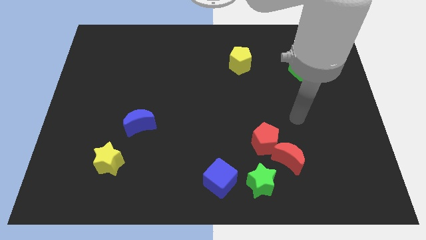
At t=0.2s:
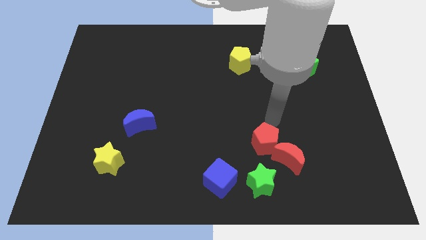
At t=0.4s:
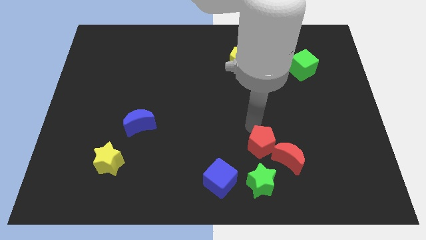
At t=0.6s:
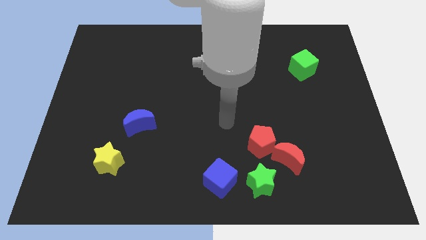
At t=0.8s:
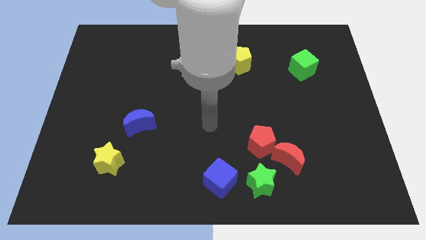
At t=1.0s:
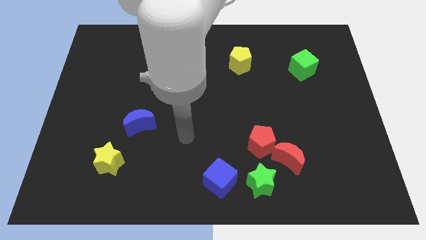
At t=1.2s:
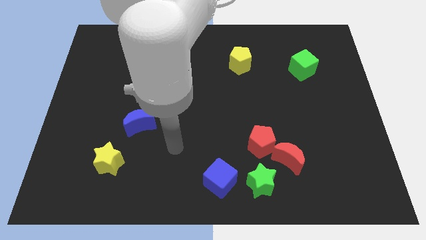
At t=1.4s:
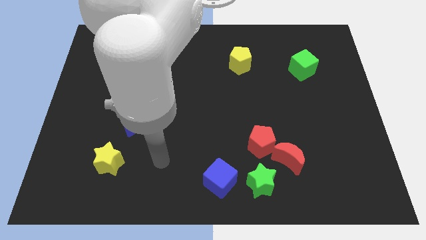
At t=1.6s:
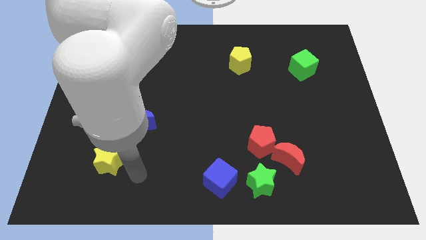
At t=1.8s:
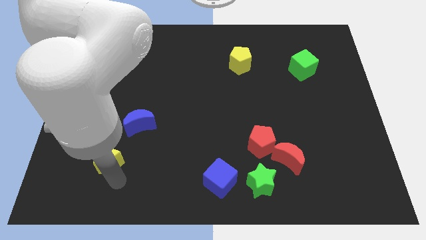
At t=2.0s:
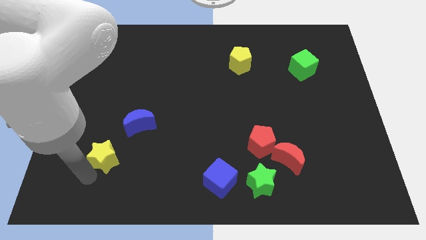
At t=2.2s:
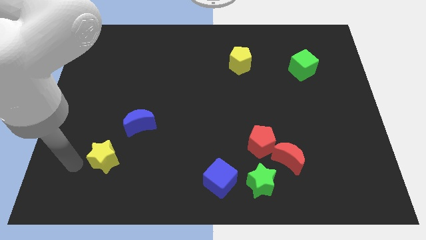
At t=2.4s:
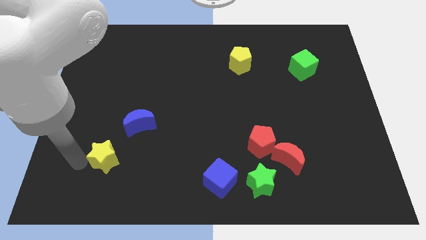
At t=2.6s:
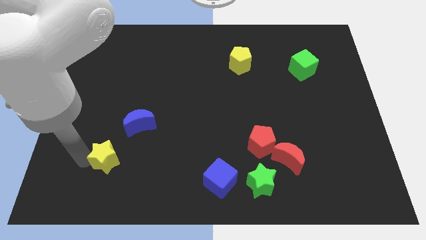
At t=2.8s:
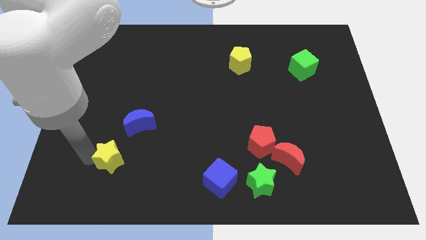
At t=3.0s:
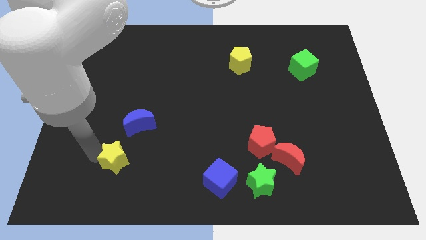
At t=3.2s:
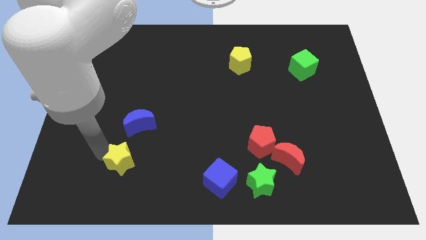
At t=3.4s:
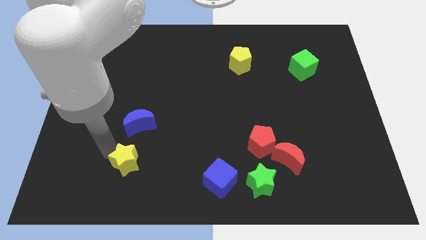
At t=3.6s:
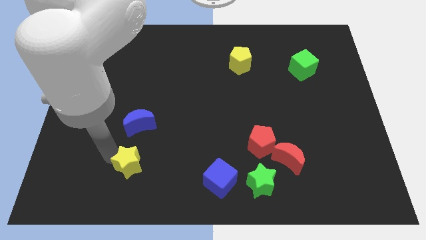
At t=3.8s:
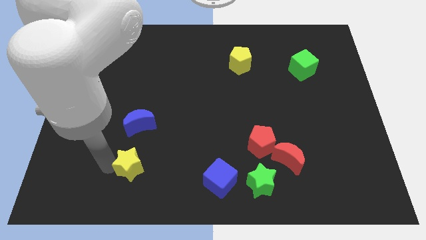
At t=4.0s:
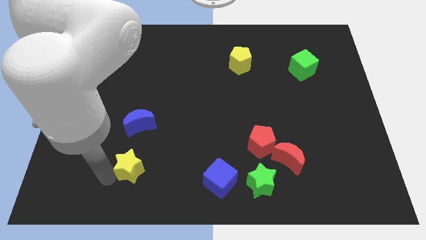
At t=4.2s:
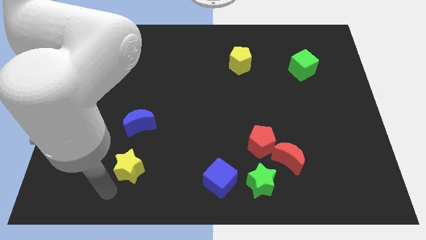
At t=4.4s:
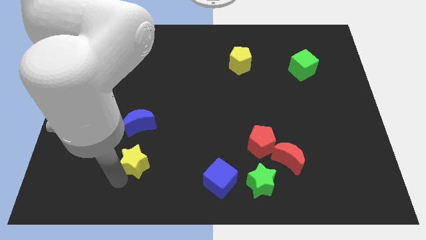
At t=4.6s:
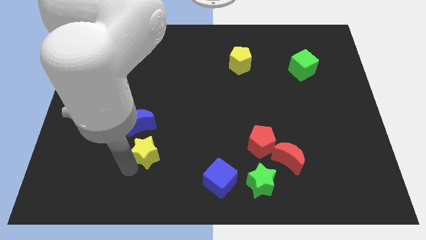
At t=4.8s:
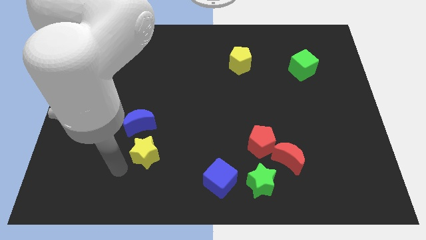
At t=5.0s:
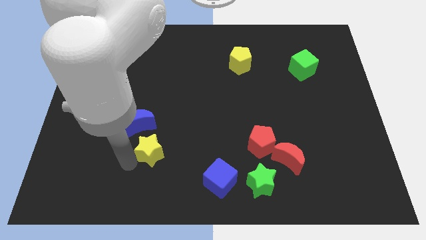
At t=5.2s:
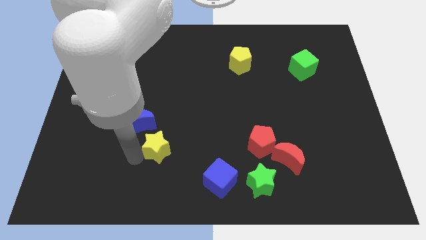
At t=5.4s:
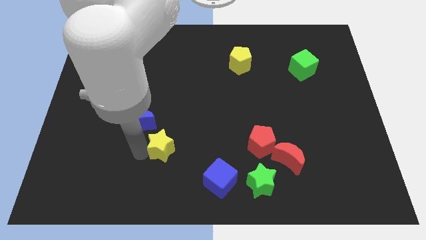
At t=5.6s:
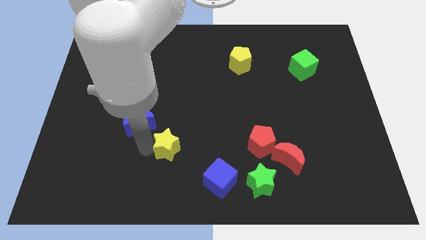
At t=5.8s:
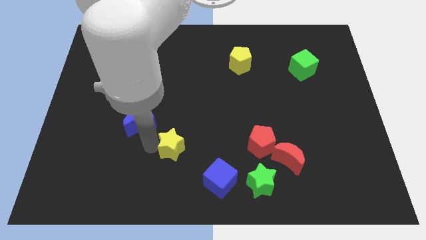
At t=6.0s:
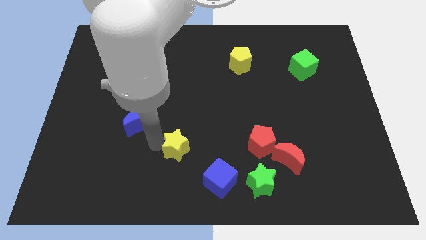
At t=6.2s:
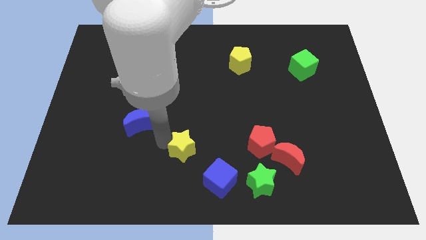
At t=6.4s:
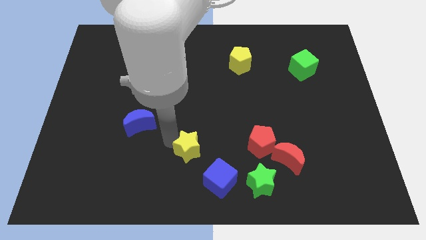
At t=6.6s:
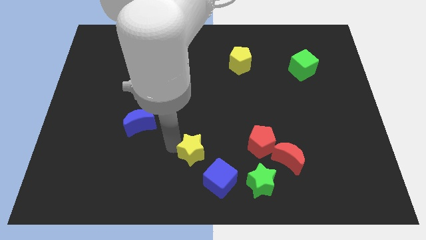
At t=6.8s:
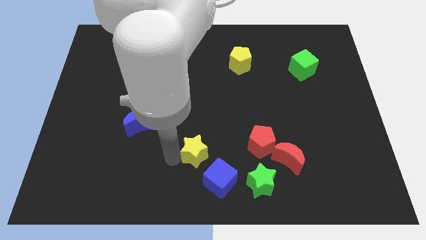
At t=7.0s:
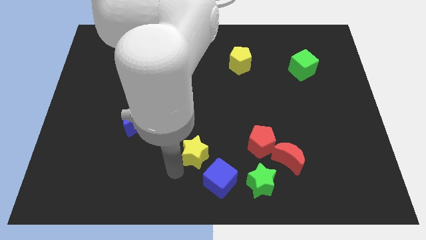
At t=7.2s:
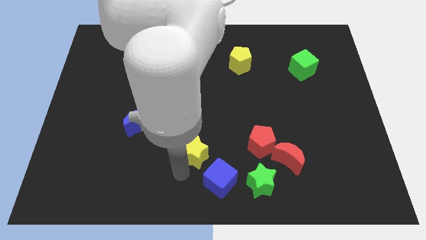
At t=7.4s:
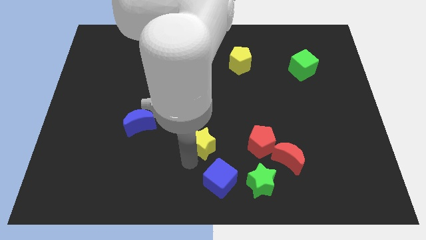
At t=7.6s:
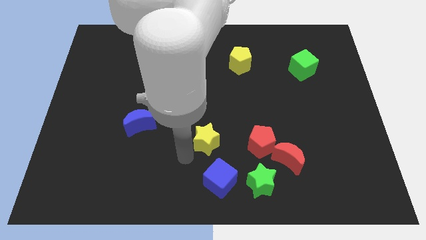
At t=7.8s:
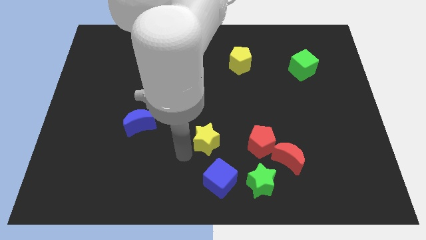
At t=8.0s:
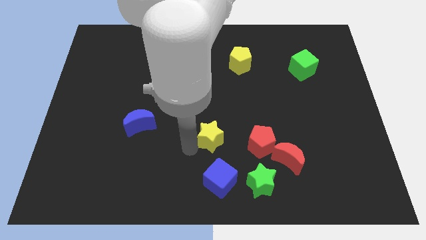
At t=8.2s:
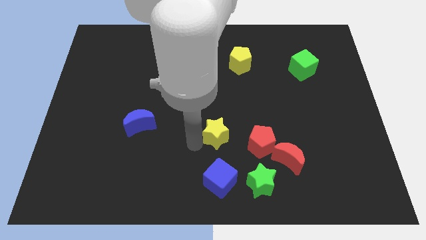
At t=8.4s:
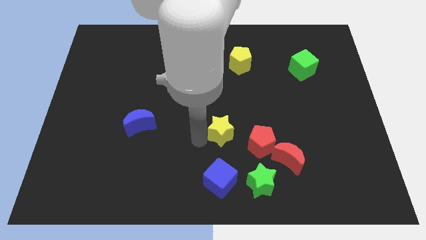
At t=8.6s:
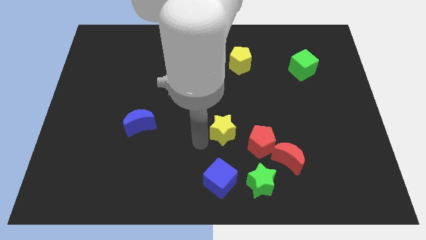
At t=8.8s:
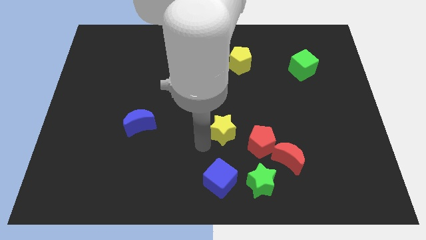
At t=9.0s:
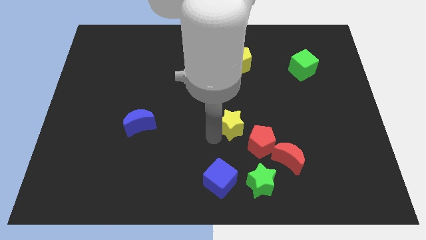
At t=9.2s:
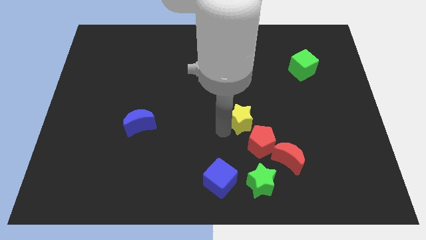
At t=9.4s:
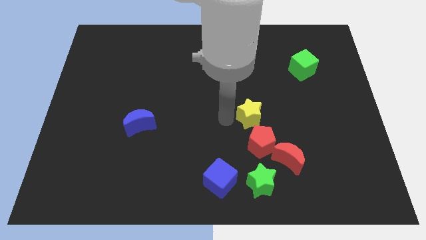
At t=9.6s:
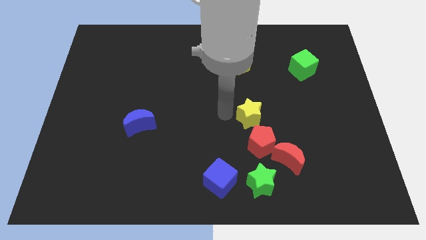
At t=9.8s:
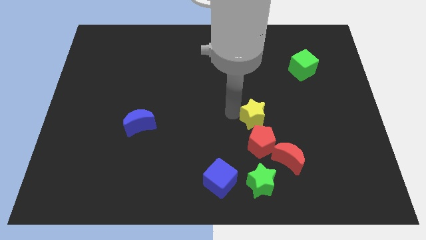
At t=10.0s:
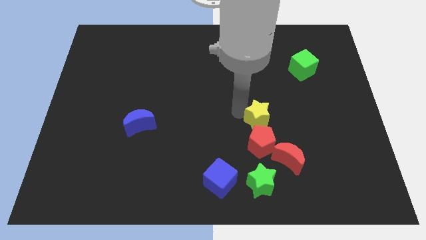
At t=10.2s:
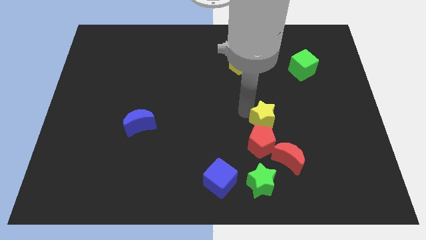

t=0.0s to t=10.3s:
put the yellow star to the top side of the red moon

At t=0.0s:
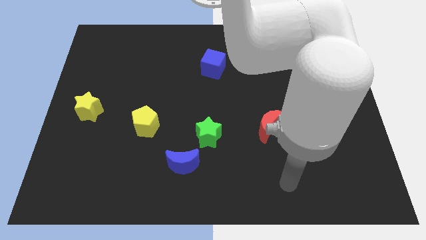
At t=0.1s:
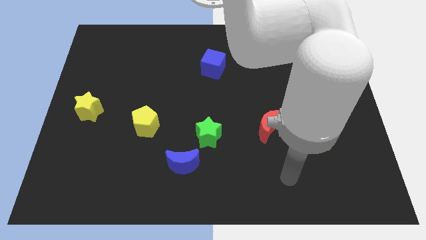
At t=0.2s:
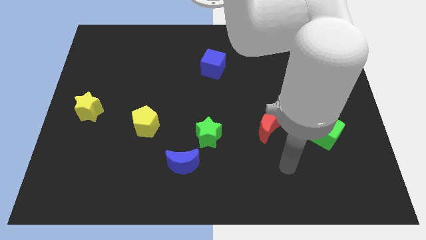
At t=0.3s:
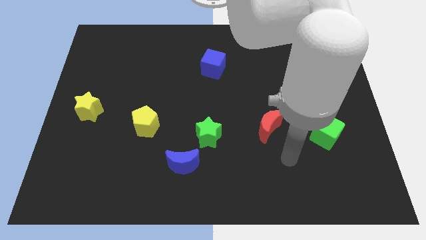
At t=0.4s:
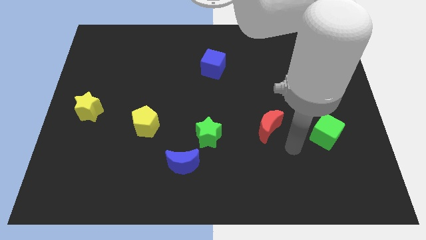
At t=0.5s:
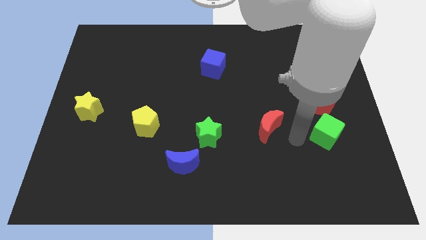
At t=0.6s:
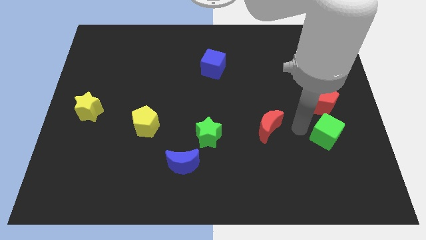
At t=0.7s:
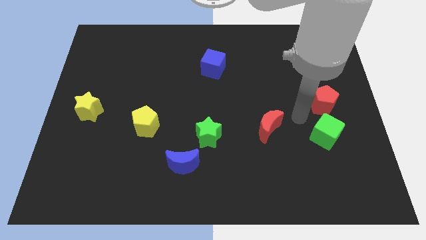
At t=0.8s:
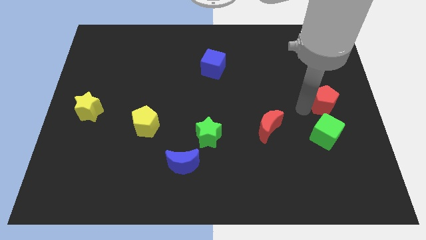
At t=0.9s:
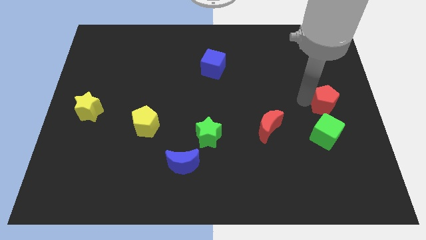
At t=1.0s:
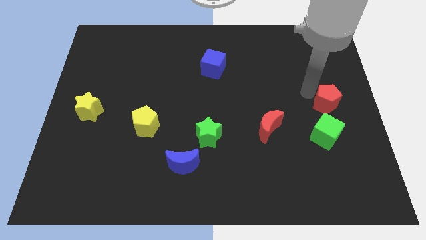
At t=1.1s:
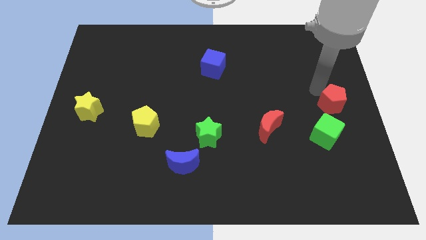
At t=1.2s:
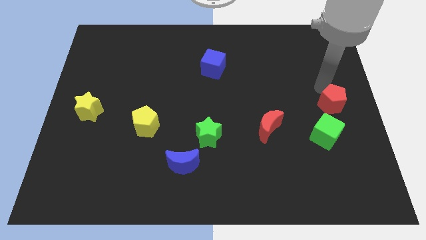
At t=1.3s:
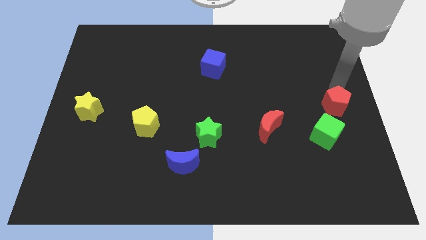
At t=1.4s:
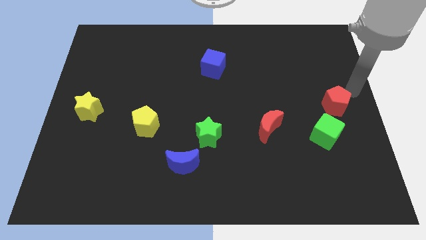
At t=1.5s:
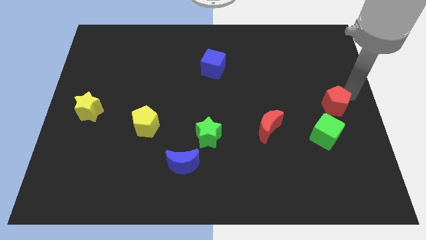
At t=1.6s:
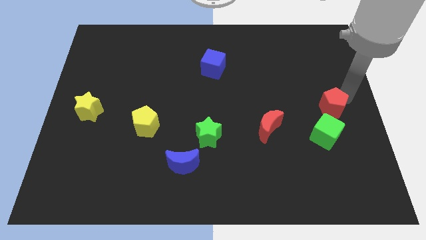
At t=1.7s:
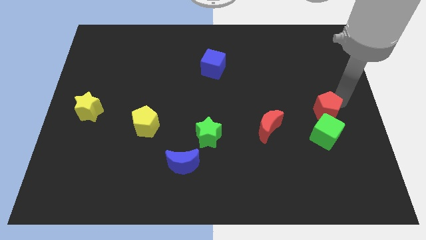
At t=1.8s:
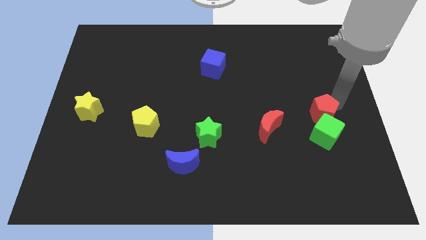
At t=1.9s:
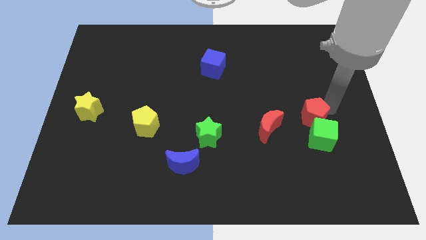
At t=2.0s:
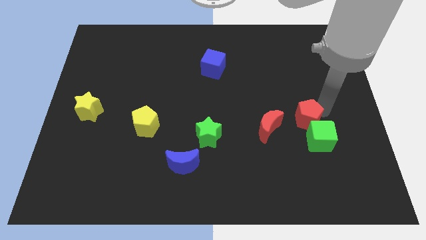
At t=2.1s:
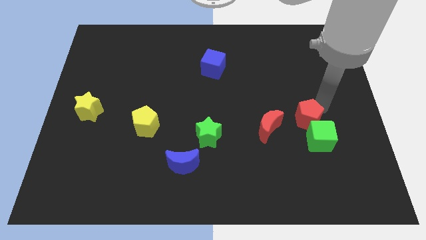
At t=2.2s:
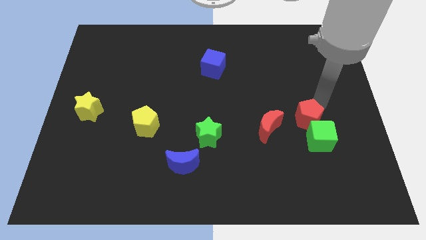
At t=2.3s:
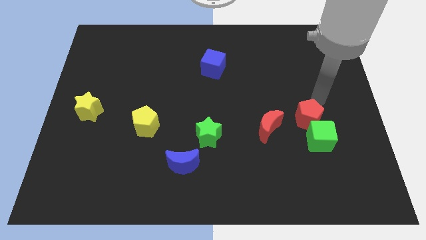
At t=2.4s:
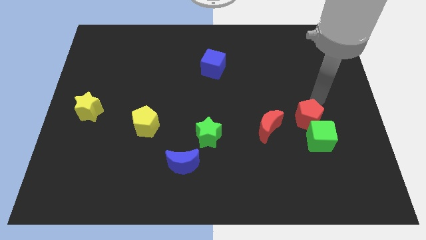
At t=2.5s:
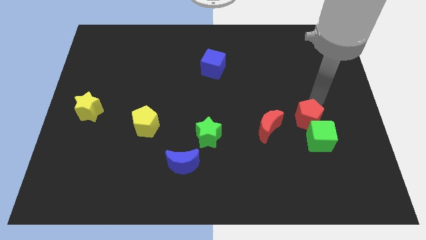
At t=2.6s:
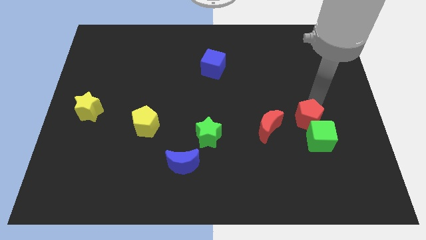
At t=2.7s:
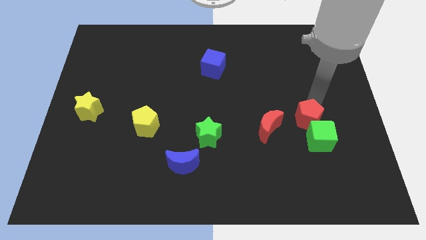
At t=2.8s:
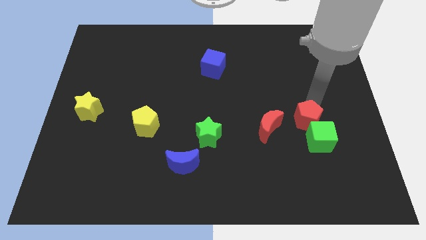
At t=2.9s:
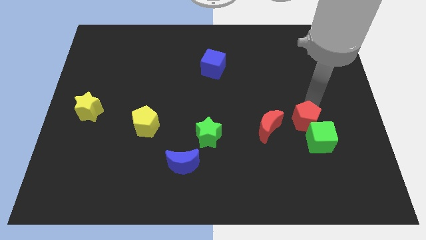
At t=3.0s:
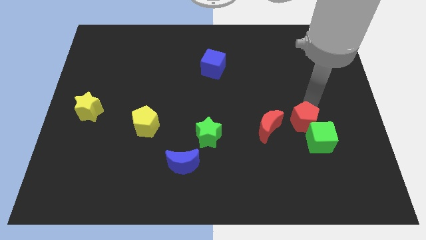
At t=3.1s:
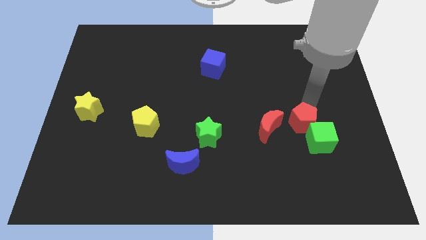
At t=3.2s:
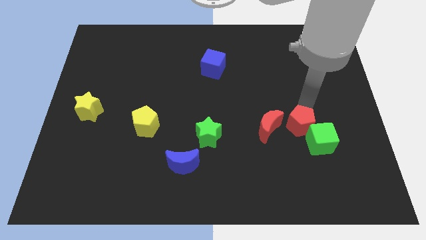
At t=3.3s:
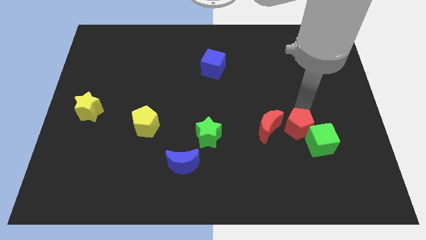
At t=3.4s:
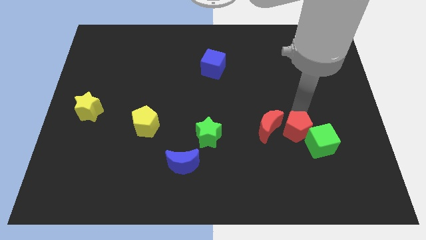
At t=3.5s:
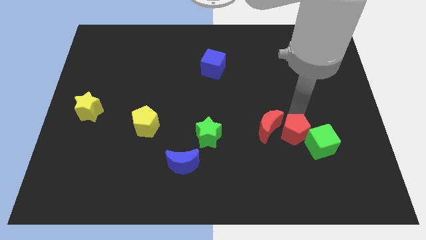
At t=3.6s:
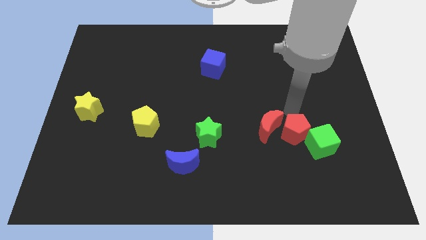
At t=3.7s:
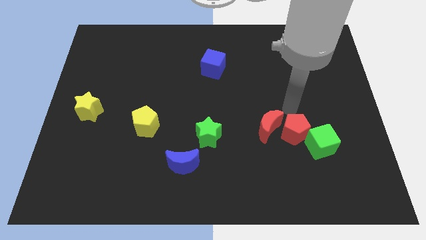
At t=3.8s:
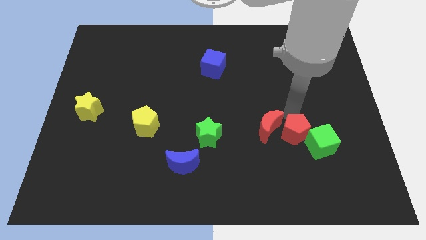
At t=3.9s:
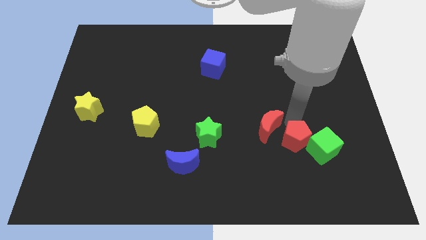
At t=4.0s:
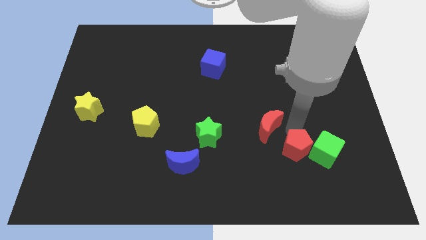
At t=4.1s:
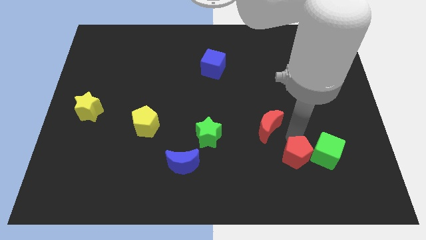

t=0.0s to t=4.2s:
slide the red pentagon to the bottom left side of the green cube
